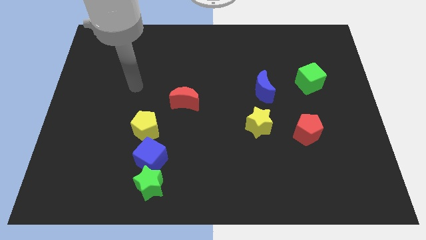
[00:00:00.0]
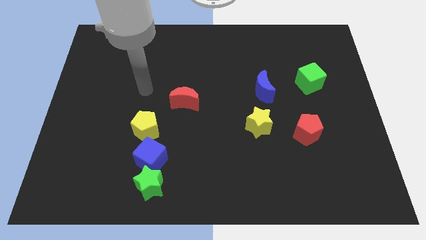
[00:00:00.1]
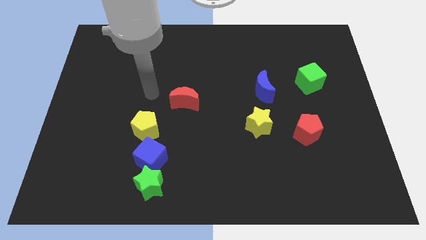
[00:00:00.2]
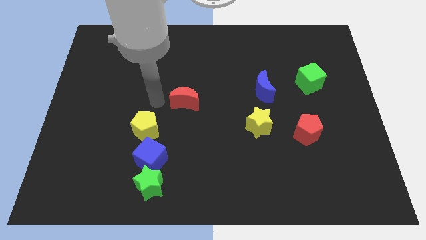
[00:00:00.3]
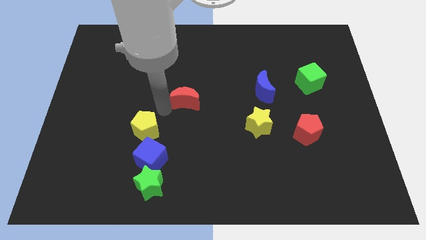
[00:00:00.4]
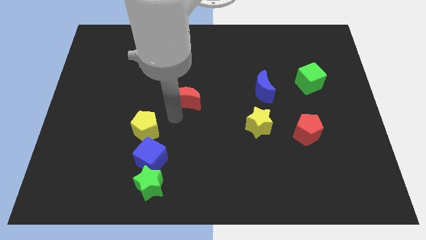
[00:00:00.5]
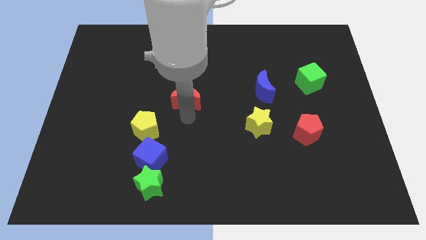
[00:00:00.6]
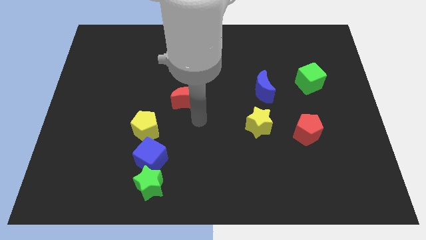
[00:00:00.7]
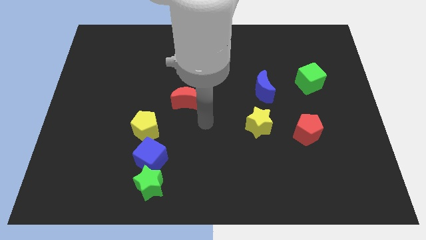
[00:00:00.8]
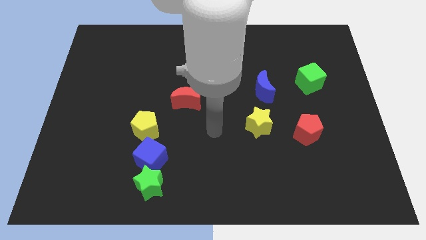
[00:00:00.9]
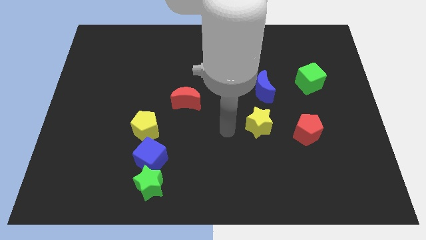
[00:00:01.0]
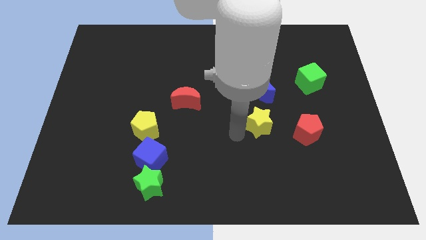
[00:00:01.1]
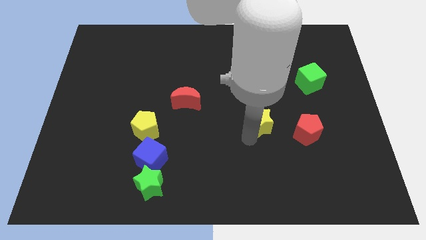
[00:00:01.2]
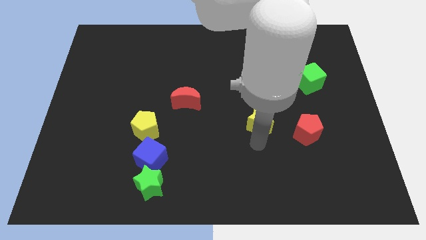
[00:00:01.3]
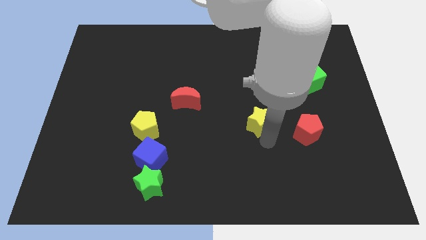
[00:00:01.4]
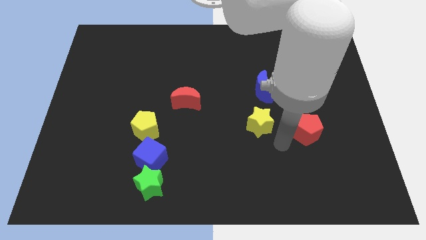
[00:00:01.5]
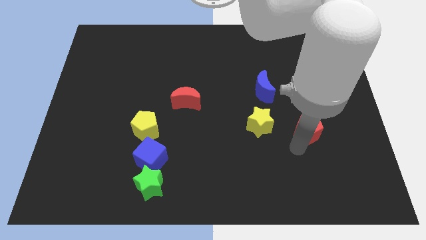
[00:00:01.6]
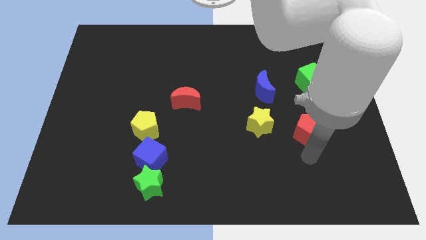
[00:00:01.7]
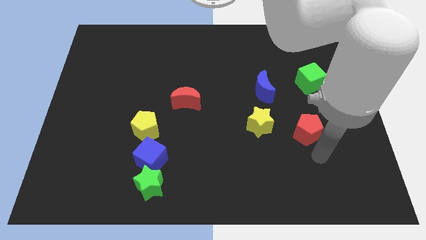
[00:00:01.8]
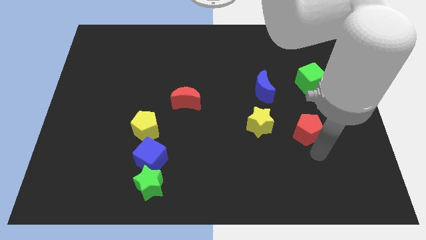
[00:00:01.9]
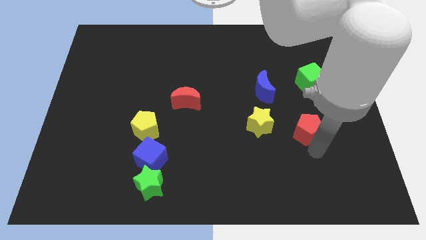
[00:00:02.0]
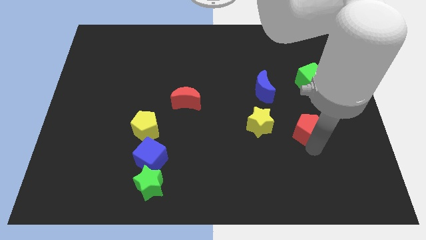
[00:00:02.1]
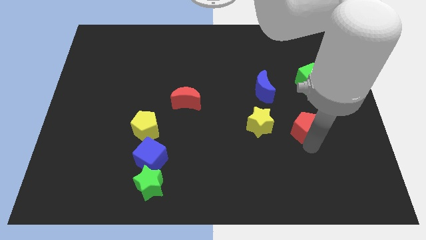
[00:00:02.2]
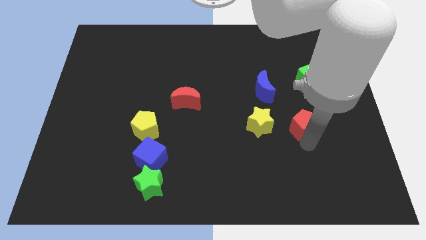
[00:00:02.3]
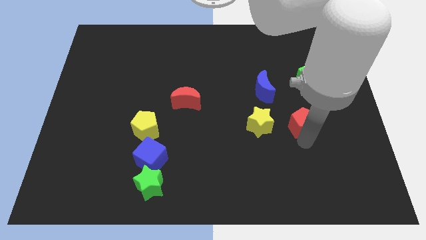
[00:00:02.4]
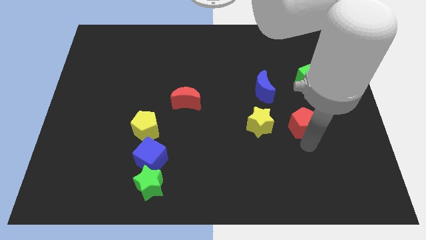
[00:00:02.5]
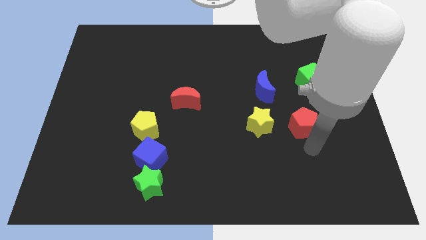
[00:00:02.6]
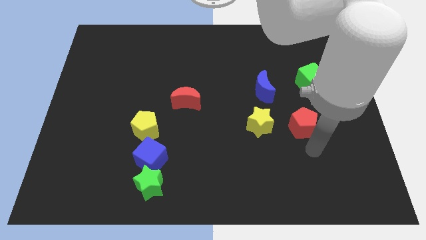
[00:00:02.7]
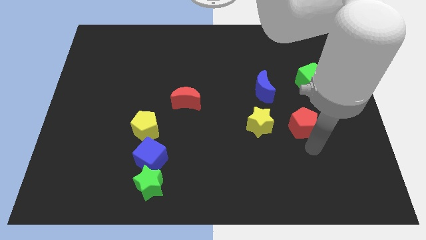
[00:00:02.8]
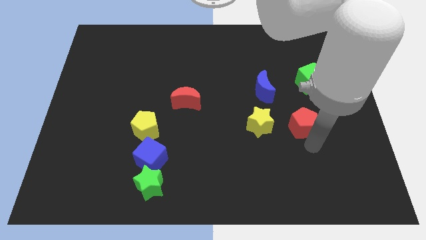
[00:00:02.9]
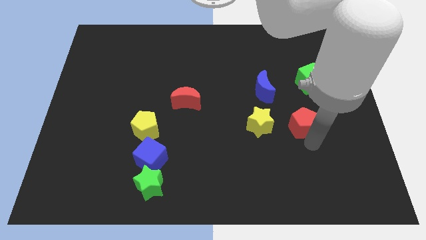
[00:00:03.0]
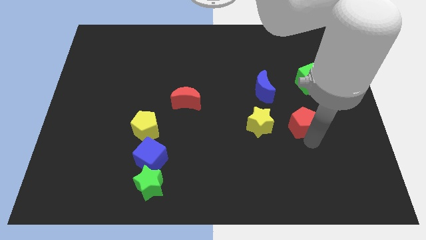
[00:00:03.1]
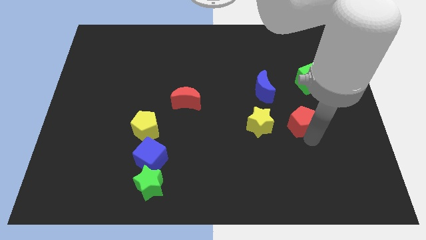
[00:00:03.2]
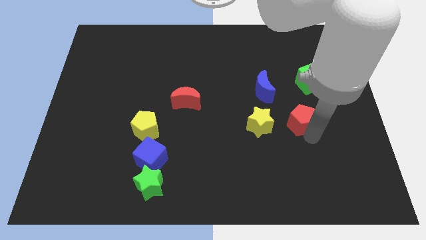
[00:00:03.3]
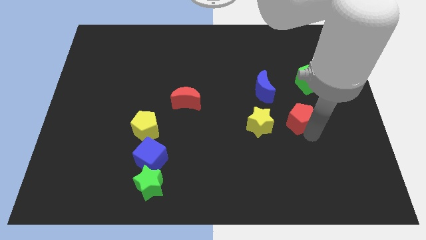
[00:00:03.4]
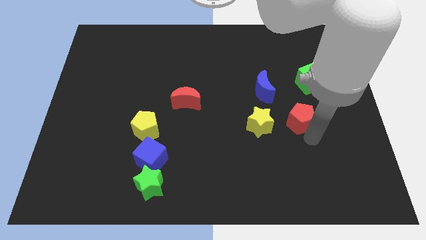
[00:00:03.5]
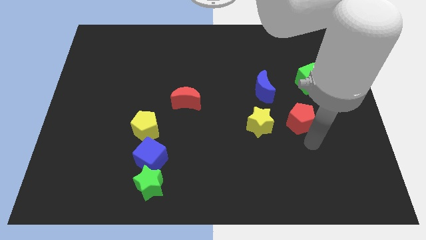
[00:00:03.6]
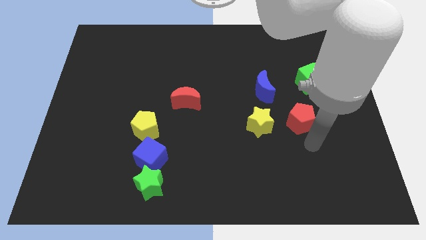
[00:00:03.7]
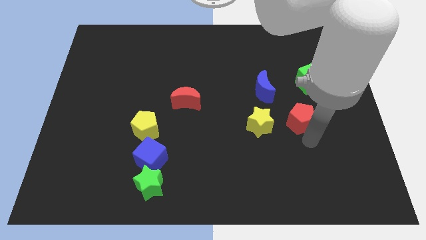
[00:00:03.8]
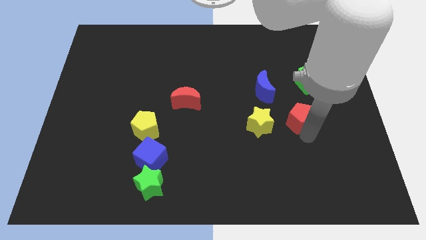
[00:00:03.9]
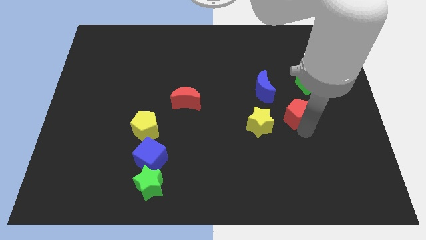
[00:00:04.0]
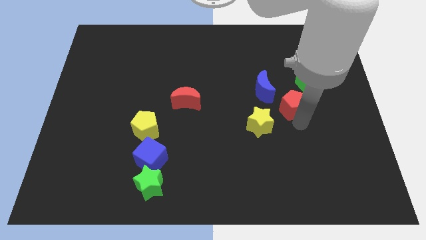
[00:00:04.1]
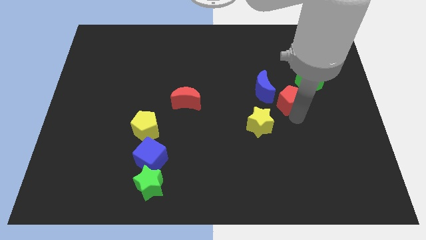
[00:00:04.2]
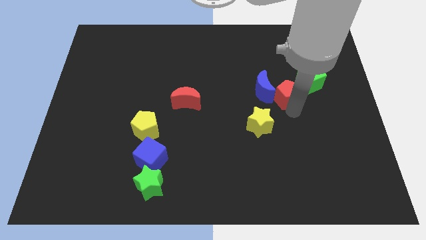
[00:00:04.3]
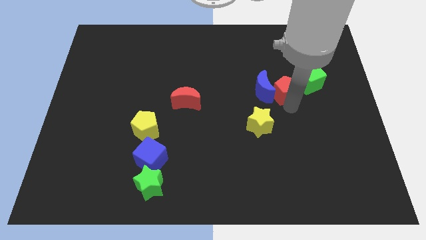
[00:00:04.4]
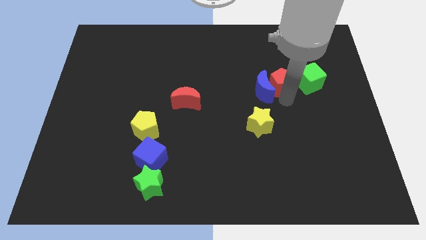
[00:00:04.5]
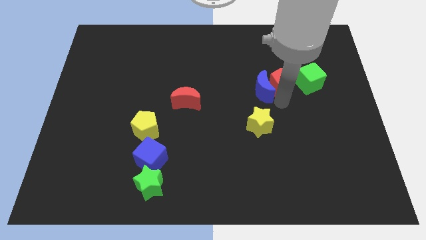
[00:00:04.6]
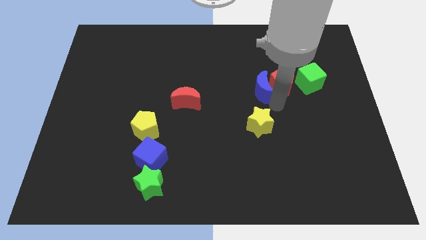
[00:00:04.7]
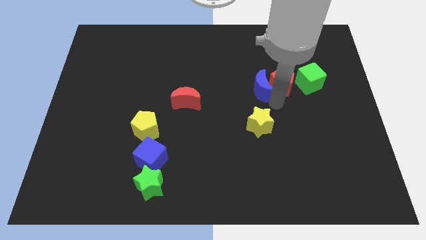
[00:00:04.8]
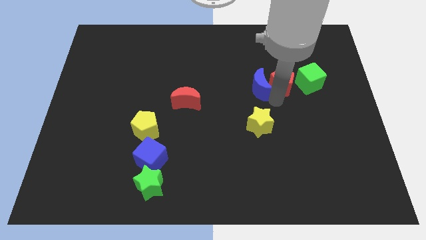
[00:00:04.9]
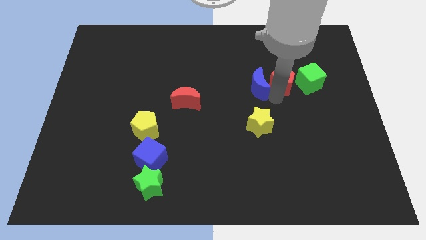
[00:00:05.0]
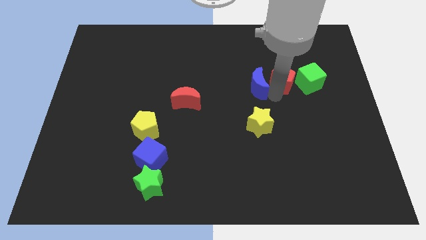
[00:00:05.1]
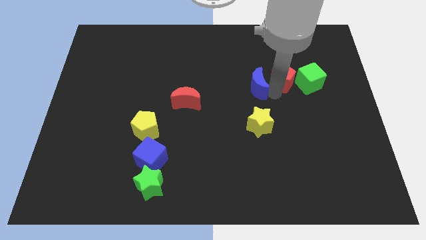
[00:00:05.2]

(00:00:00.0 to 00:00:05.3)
put the red pentagon diagonally up and to the left of the green cube

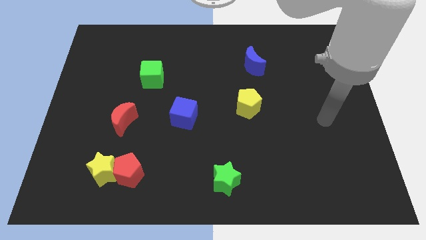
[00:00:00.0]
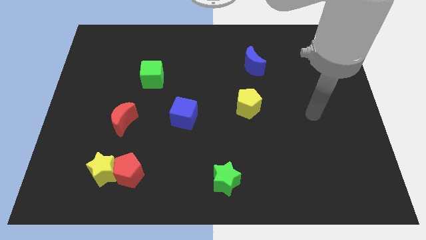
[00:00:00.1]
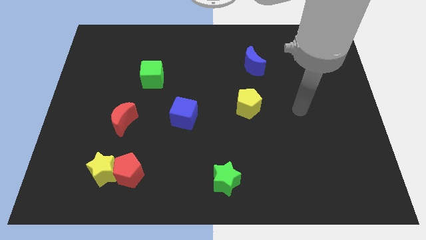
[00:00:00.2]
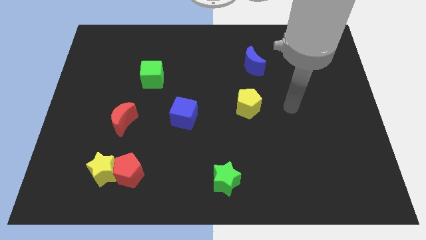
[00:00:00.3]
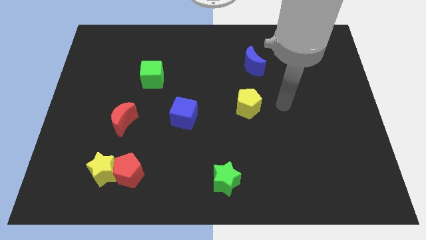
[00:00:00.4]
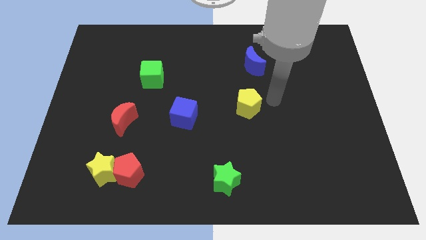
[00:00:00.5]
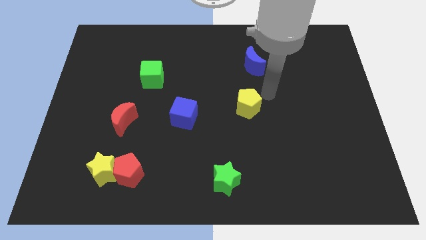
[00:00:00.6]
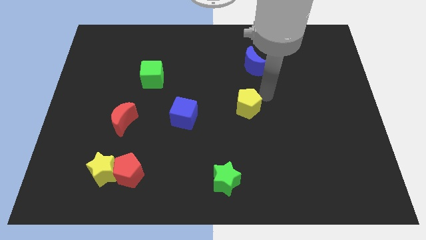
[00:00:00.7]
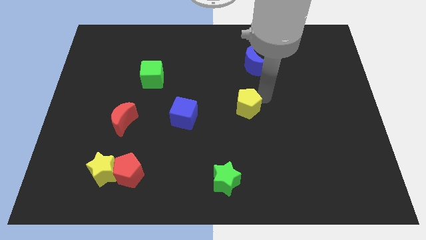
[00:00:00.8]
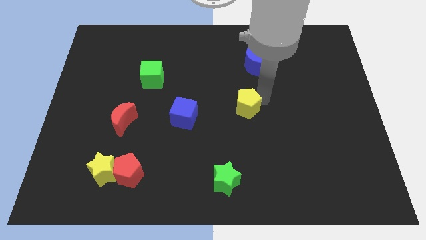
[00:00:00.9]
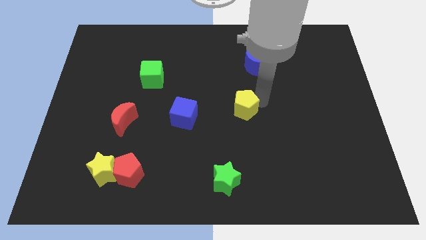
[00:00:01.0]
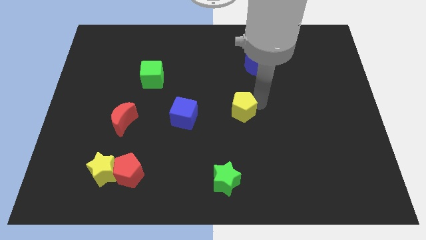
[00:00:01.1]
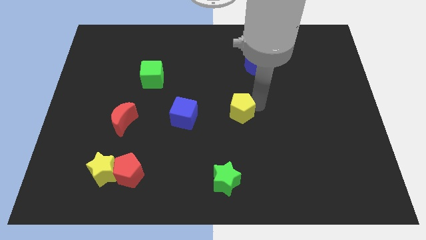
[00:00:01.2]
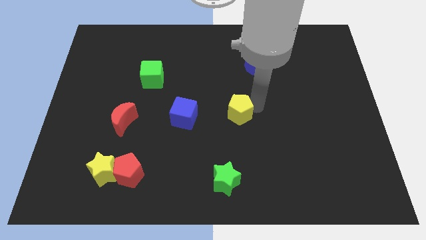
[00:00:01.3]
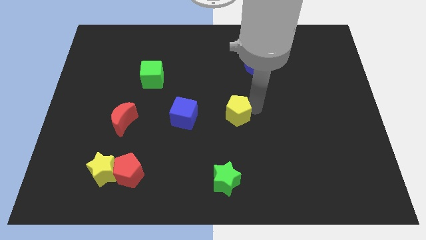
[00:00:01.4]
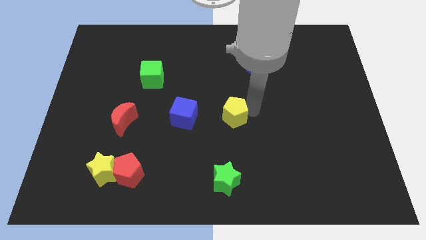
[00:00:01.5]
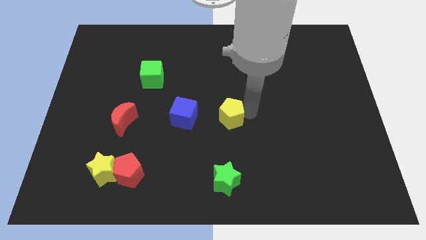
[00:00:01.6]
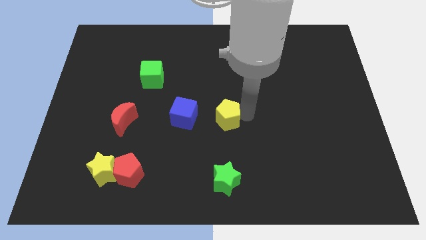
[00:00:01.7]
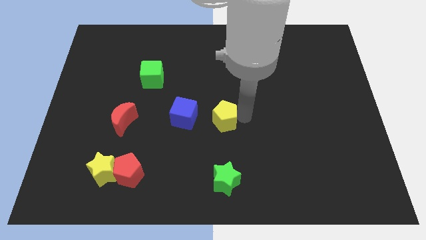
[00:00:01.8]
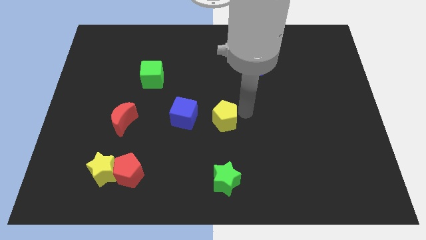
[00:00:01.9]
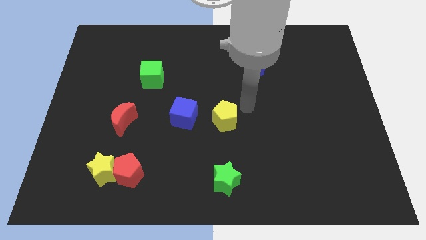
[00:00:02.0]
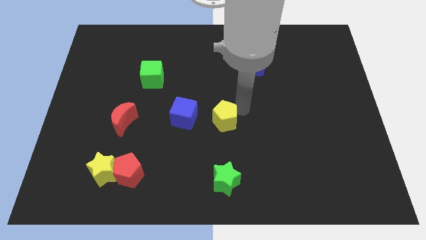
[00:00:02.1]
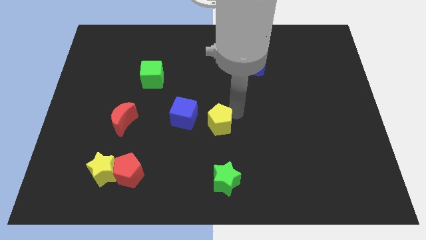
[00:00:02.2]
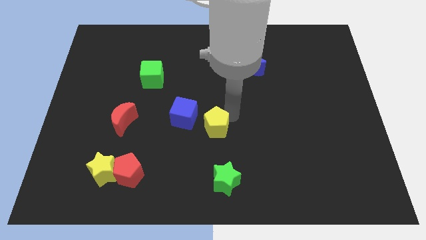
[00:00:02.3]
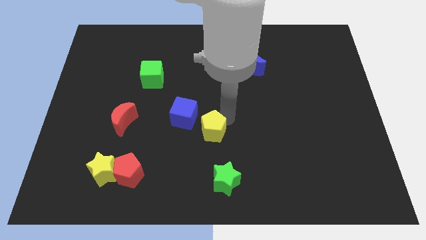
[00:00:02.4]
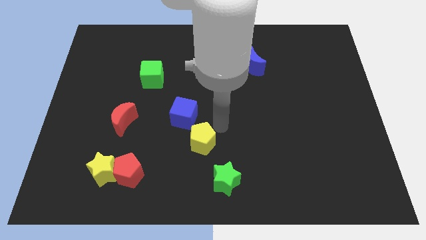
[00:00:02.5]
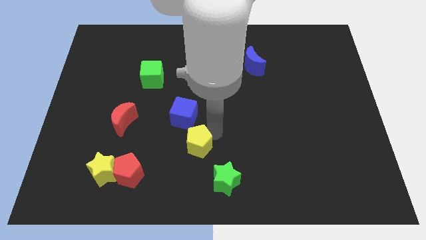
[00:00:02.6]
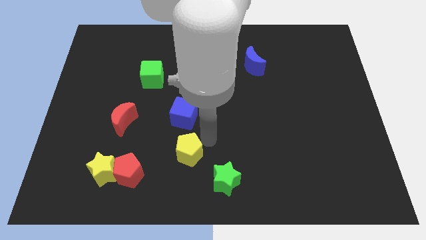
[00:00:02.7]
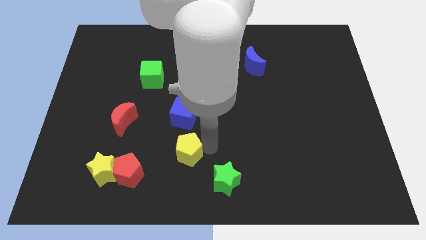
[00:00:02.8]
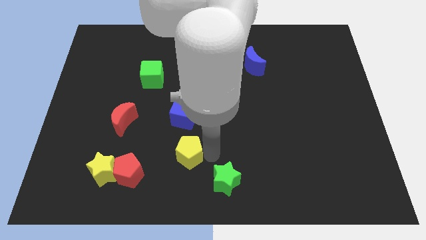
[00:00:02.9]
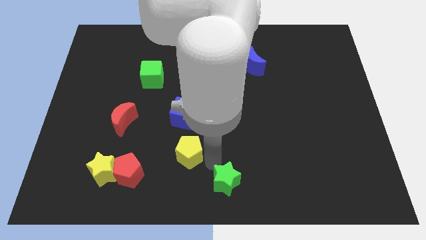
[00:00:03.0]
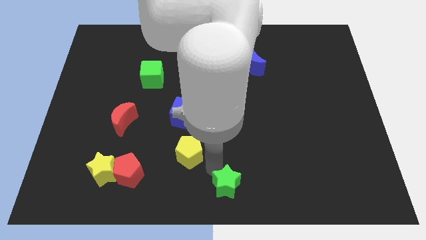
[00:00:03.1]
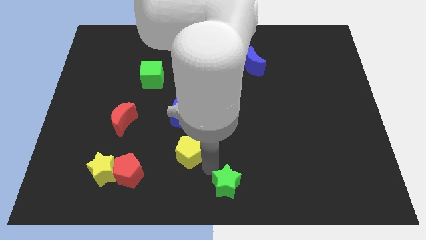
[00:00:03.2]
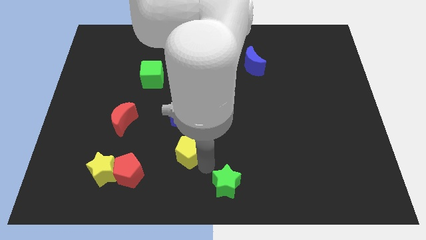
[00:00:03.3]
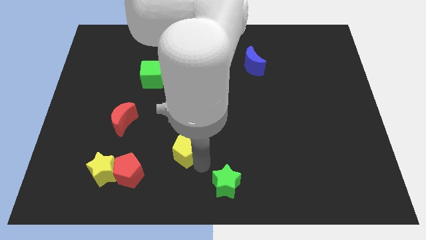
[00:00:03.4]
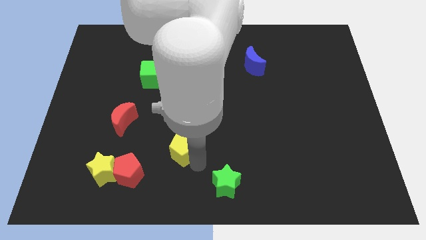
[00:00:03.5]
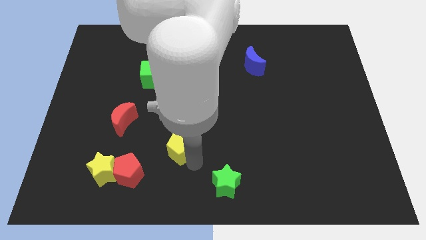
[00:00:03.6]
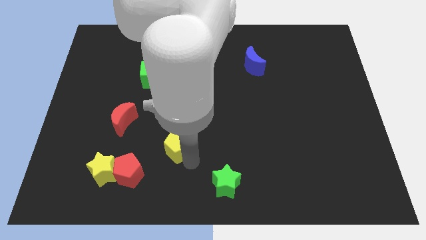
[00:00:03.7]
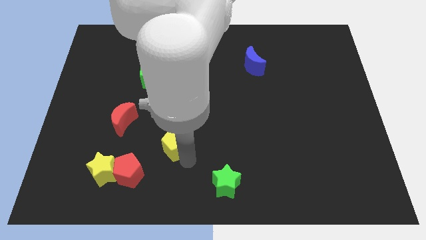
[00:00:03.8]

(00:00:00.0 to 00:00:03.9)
slide the yellow pentagon diagonally down and to the left of the blue cube
